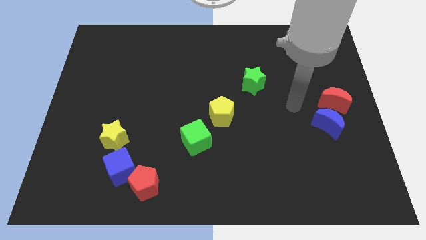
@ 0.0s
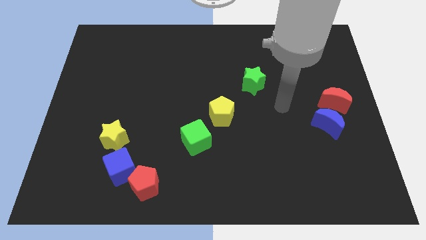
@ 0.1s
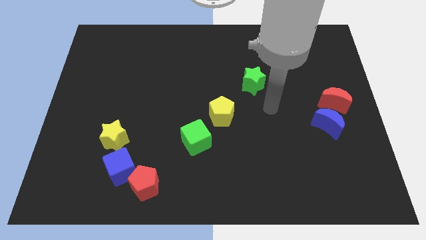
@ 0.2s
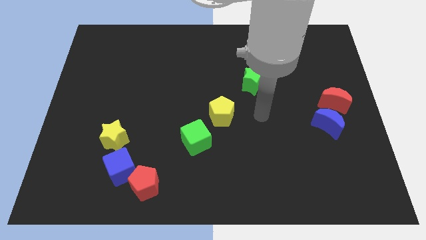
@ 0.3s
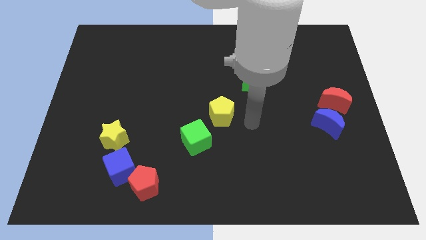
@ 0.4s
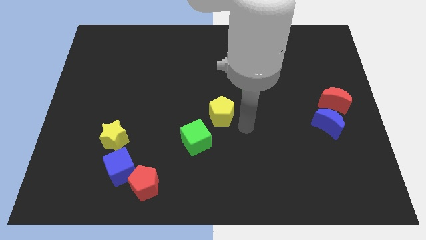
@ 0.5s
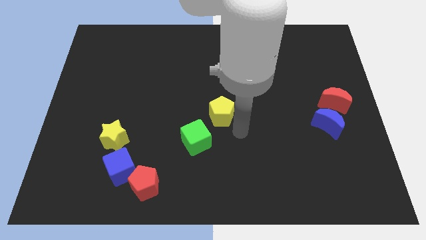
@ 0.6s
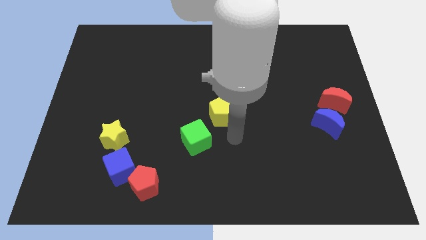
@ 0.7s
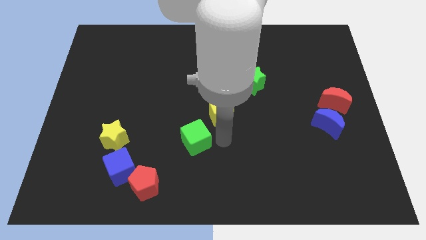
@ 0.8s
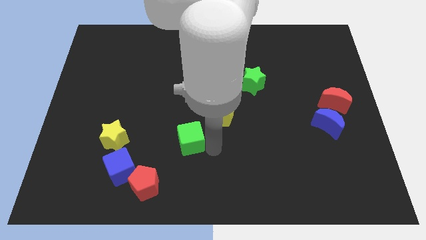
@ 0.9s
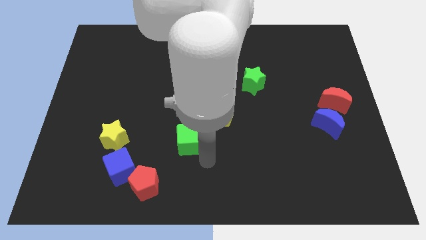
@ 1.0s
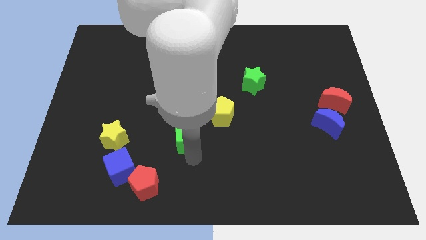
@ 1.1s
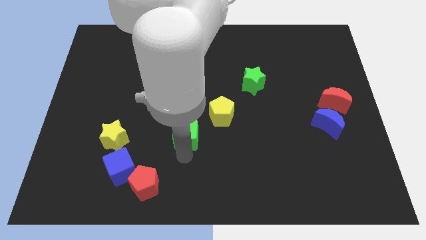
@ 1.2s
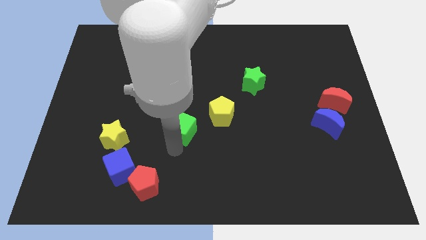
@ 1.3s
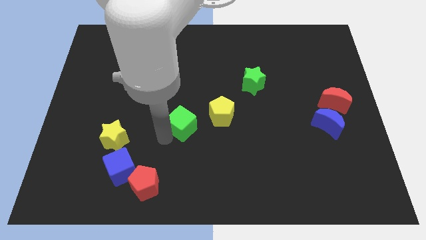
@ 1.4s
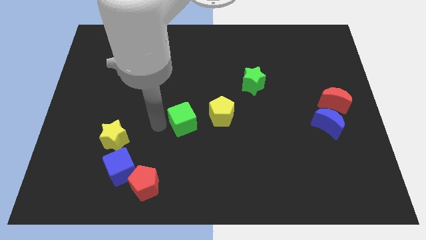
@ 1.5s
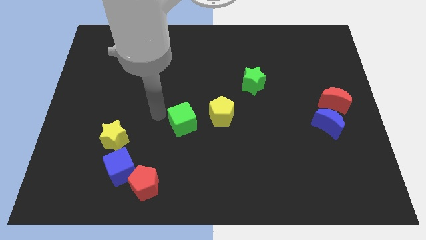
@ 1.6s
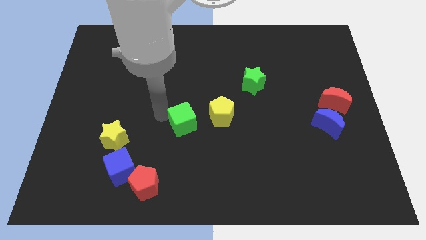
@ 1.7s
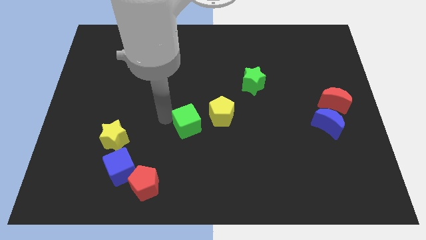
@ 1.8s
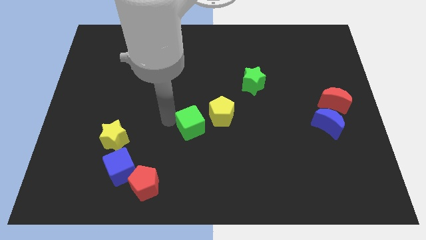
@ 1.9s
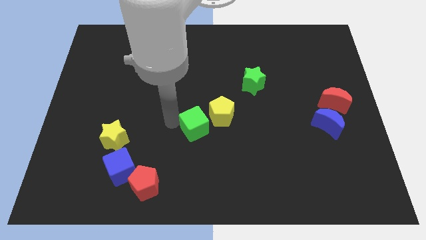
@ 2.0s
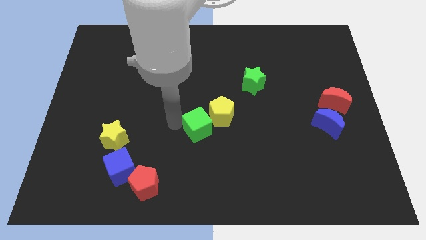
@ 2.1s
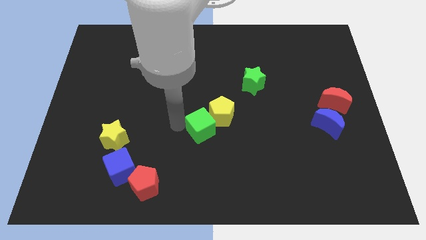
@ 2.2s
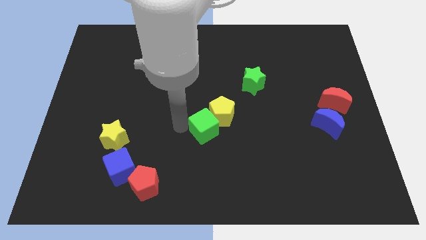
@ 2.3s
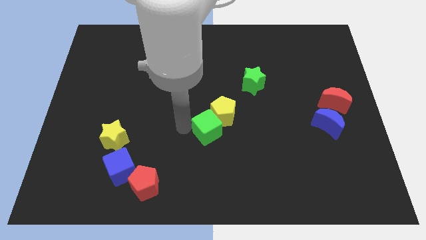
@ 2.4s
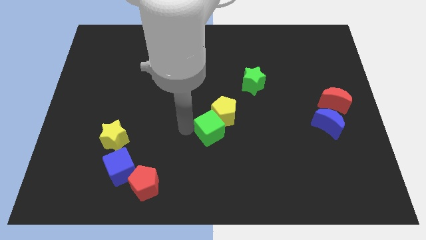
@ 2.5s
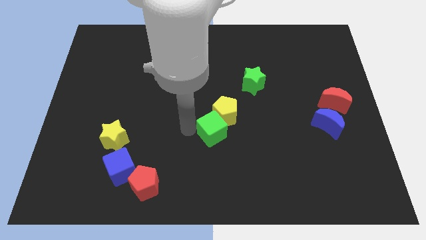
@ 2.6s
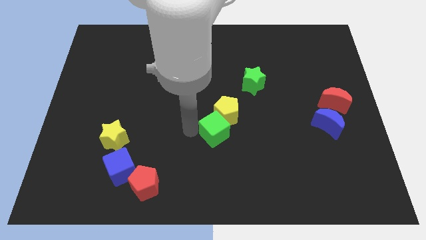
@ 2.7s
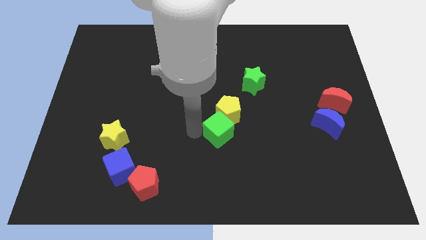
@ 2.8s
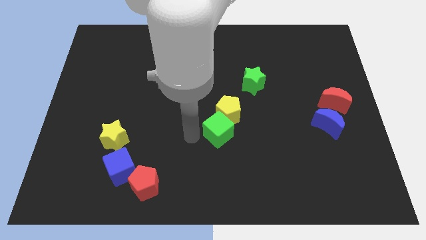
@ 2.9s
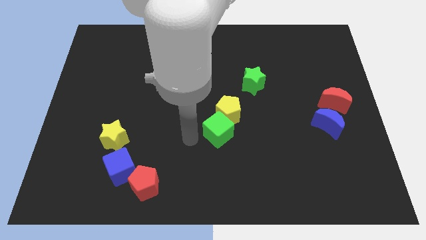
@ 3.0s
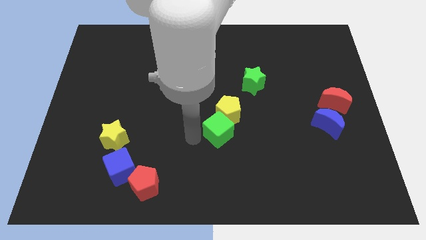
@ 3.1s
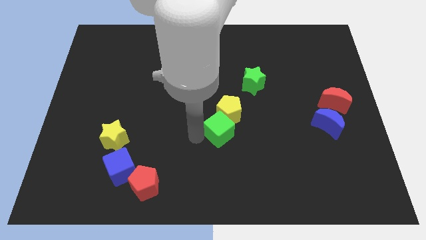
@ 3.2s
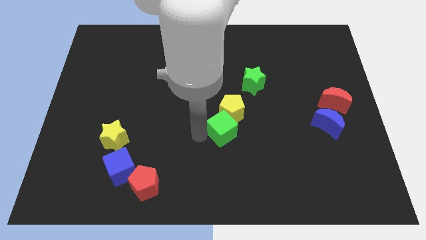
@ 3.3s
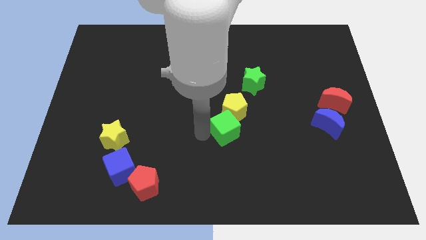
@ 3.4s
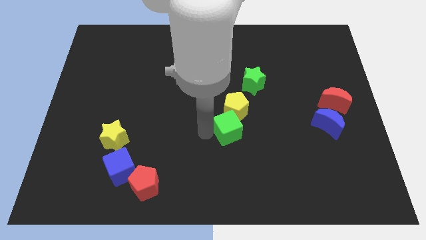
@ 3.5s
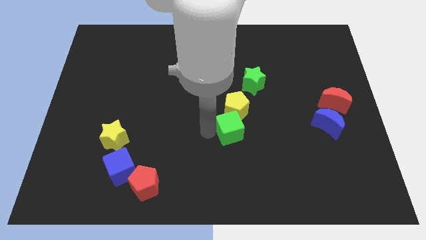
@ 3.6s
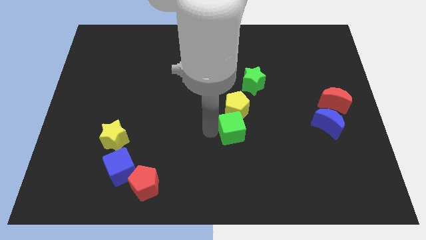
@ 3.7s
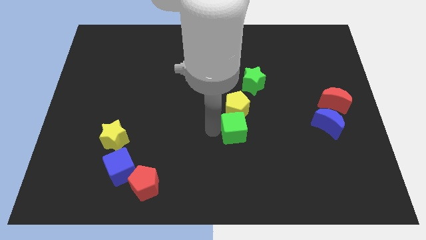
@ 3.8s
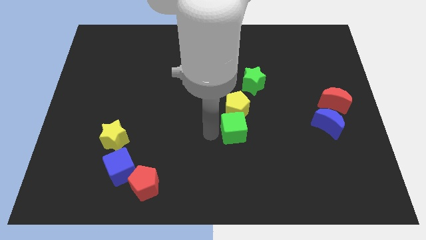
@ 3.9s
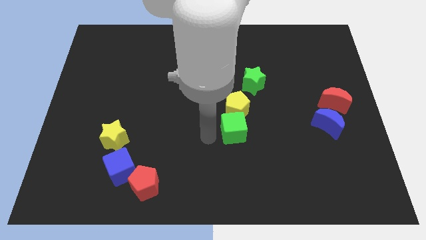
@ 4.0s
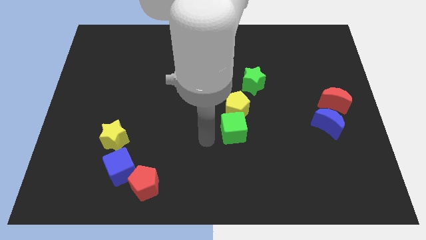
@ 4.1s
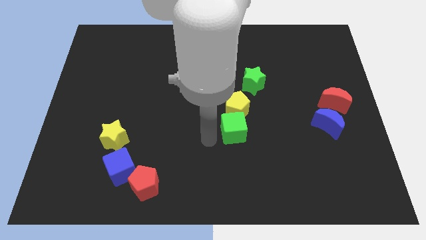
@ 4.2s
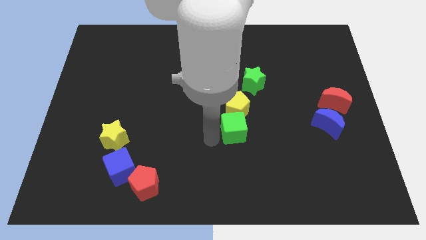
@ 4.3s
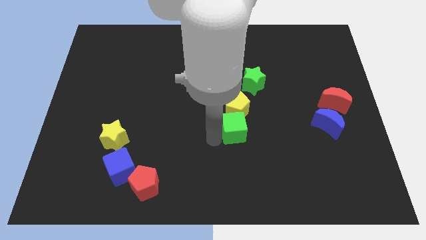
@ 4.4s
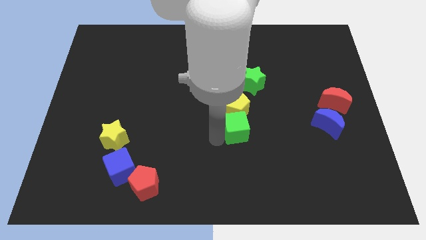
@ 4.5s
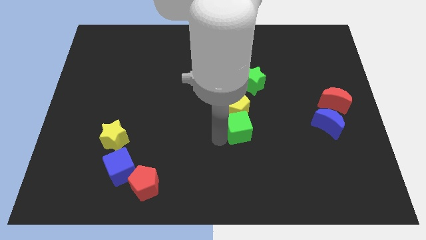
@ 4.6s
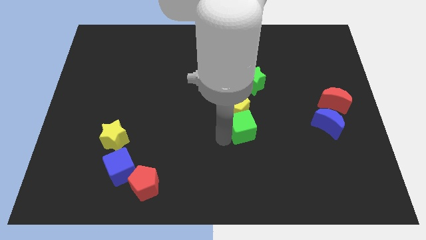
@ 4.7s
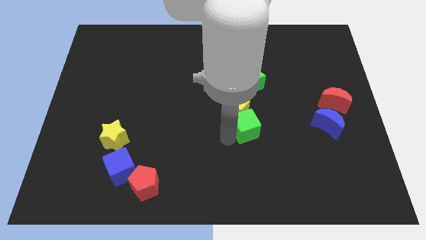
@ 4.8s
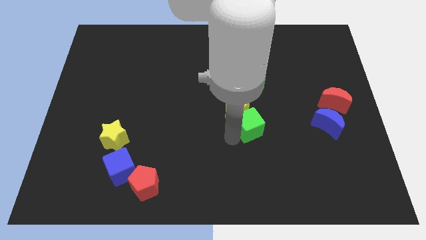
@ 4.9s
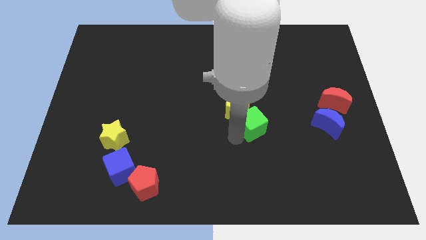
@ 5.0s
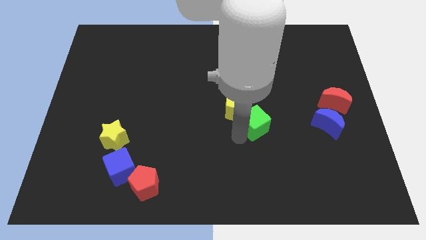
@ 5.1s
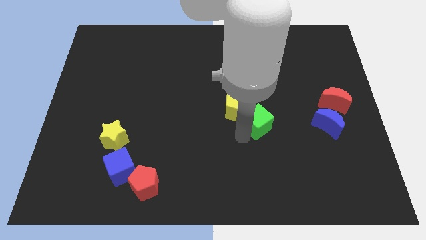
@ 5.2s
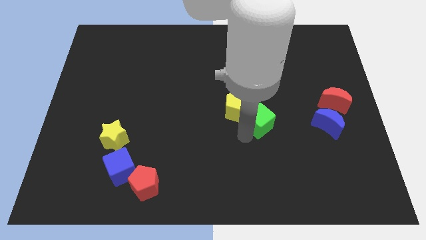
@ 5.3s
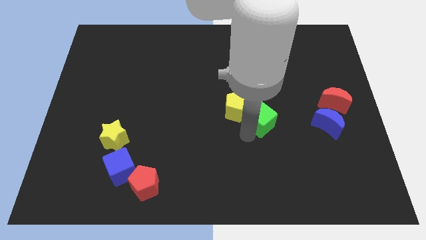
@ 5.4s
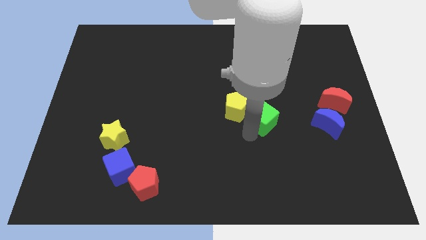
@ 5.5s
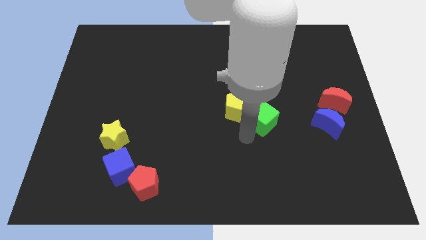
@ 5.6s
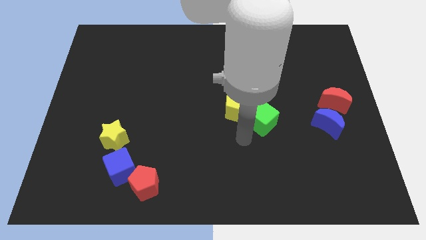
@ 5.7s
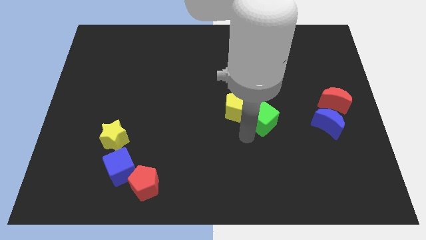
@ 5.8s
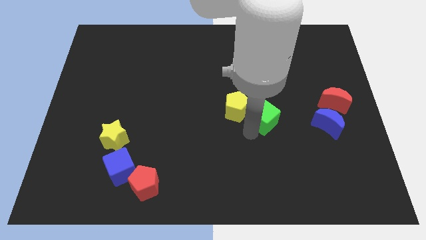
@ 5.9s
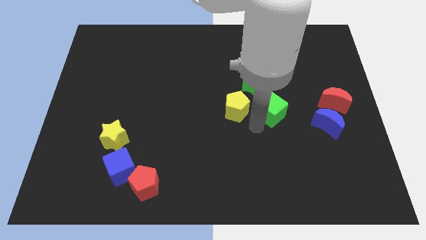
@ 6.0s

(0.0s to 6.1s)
put the green cube to the left side of the red moon
